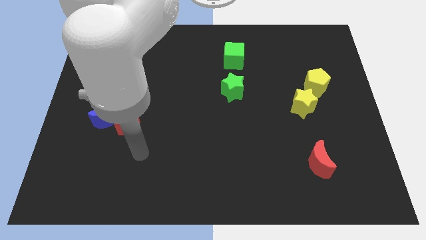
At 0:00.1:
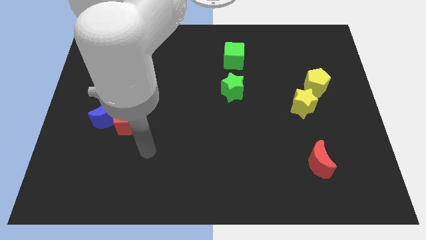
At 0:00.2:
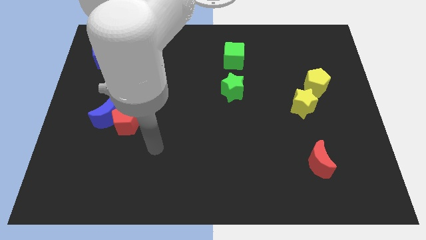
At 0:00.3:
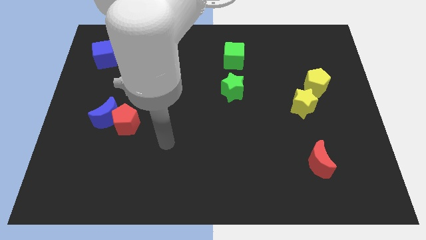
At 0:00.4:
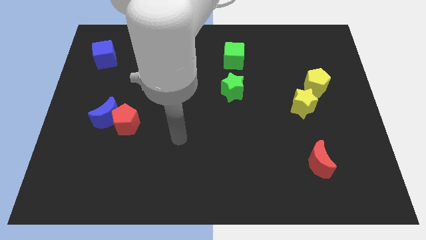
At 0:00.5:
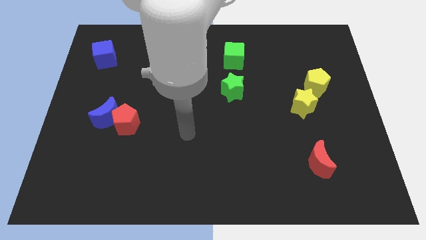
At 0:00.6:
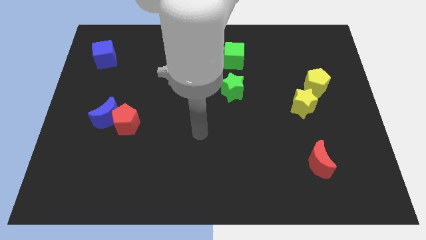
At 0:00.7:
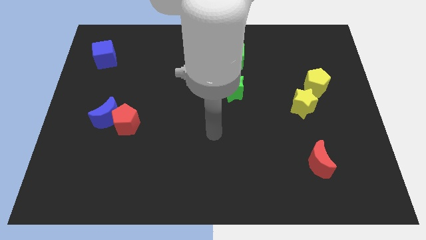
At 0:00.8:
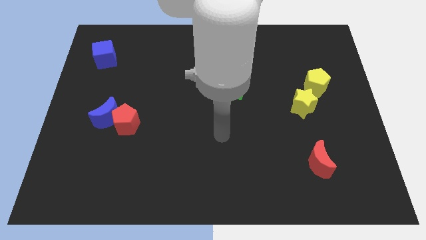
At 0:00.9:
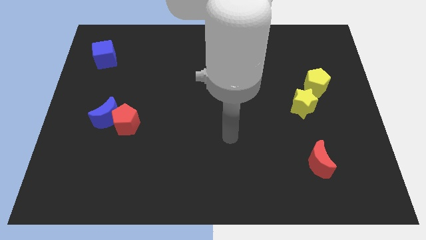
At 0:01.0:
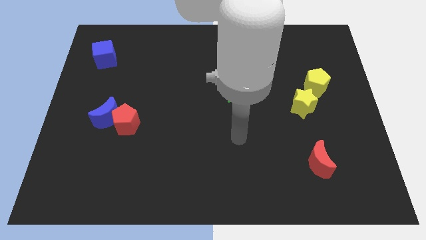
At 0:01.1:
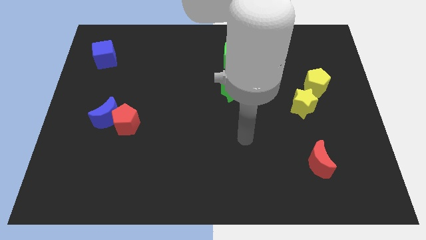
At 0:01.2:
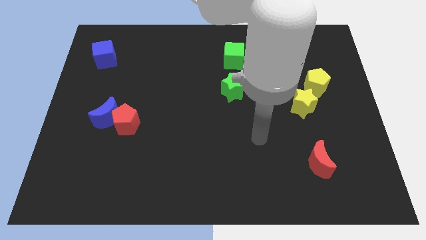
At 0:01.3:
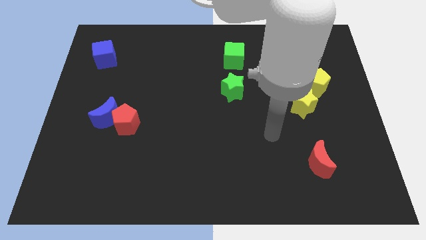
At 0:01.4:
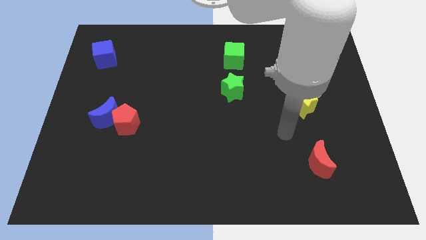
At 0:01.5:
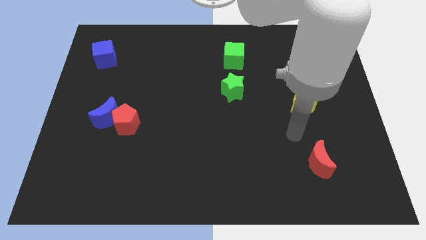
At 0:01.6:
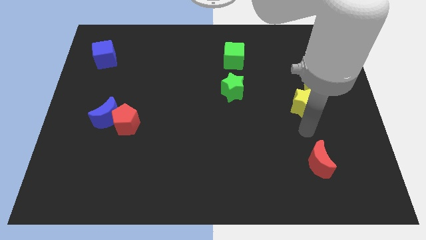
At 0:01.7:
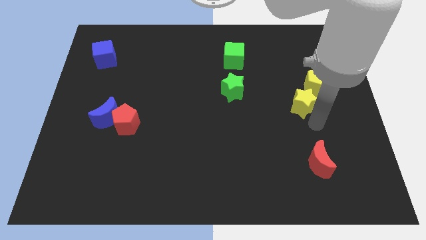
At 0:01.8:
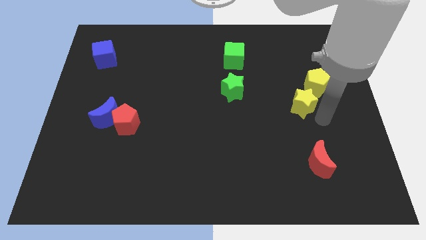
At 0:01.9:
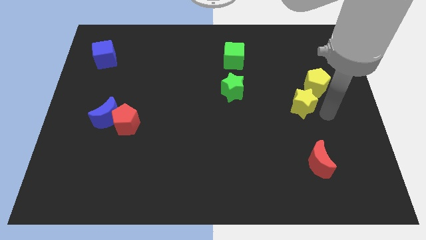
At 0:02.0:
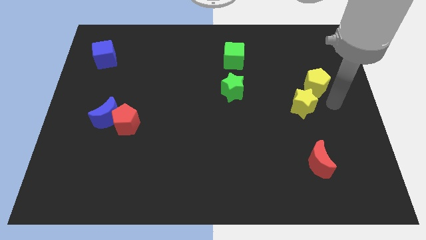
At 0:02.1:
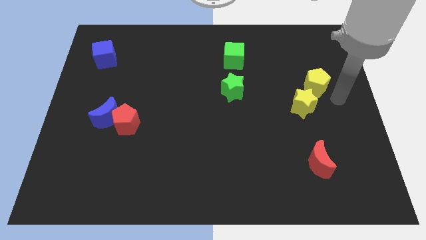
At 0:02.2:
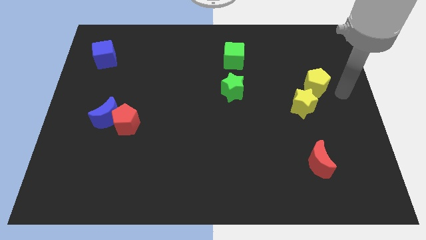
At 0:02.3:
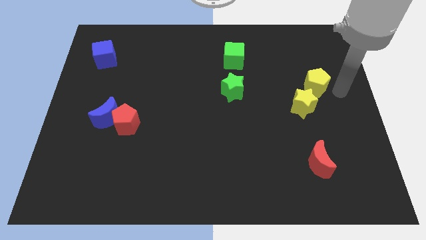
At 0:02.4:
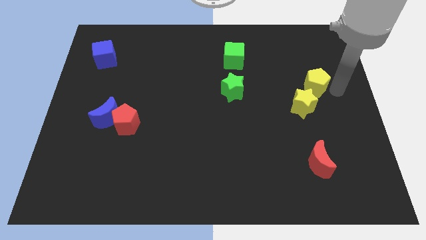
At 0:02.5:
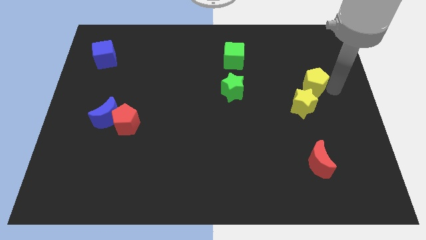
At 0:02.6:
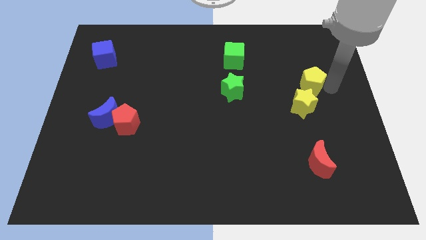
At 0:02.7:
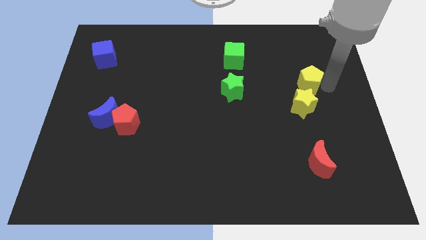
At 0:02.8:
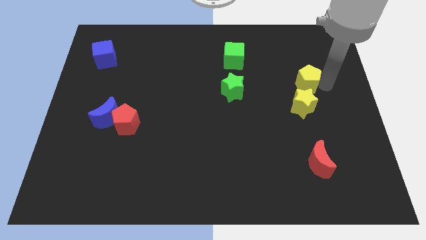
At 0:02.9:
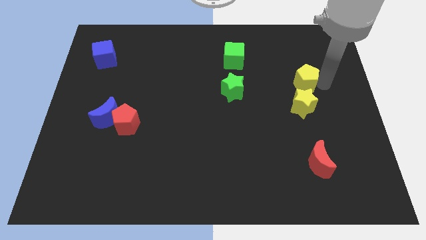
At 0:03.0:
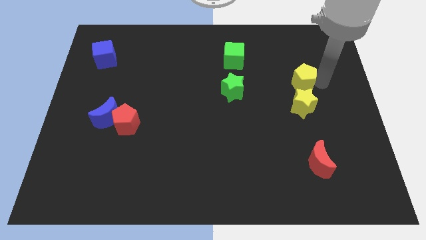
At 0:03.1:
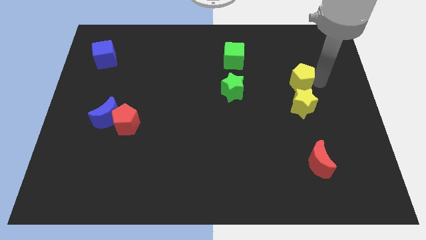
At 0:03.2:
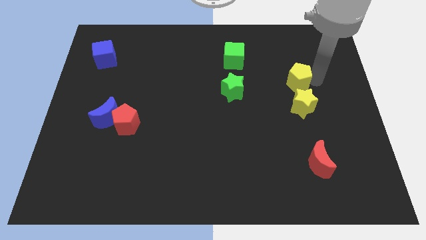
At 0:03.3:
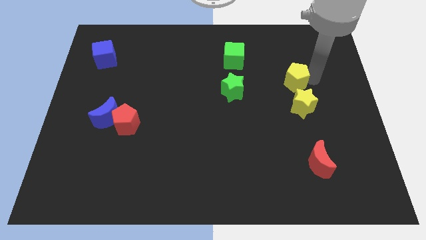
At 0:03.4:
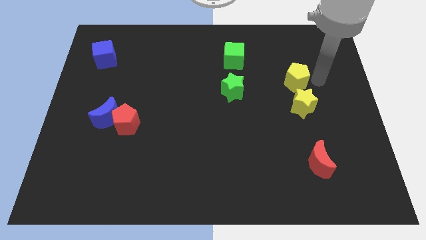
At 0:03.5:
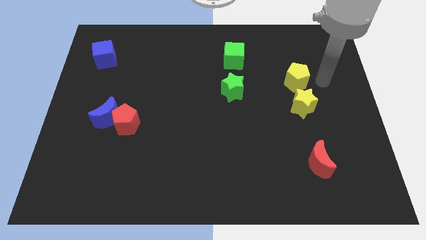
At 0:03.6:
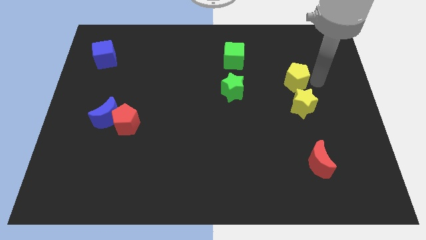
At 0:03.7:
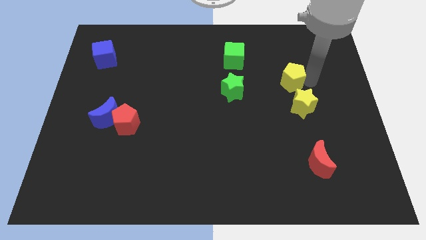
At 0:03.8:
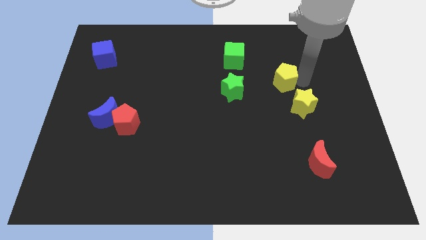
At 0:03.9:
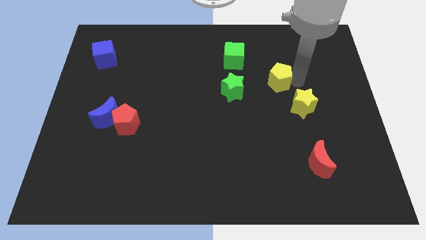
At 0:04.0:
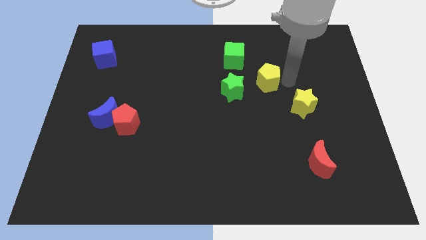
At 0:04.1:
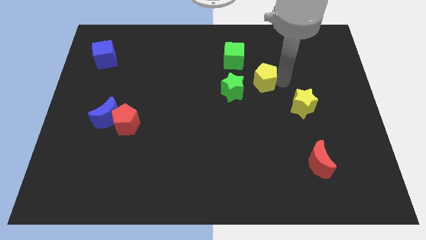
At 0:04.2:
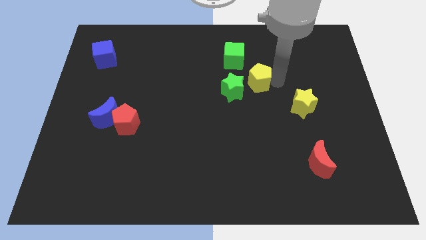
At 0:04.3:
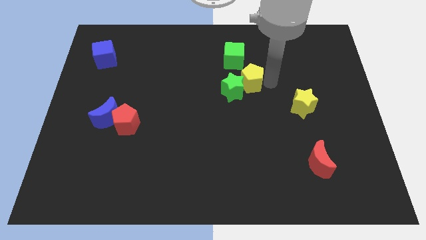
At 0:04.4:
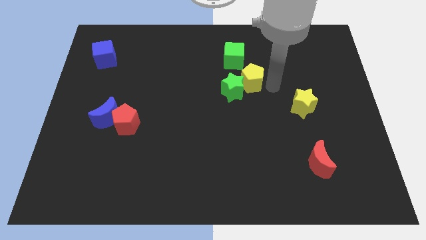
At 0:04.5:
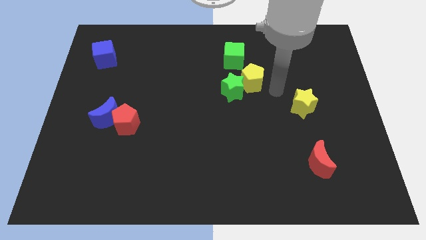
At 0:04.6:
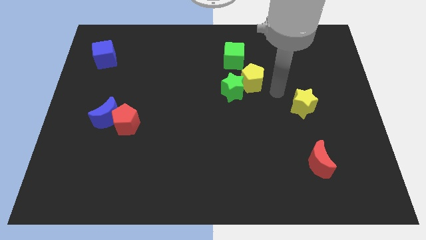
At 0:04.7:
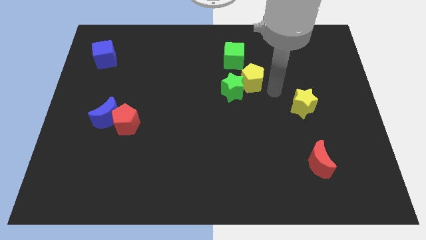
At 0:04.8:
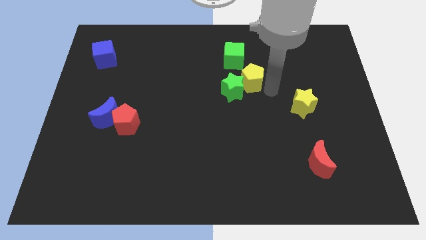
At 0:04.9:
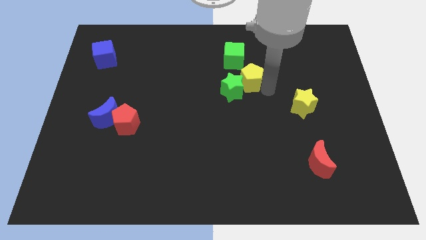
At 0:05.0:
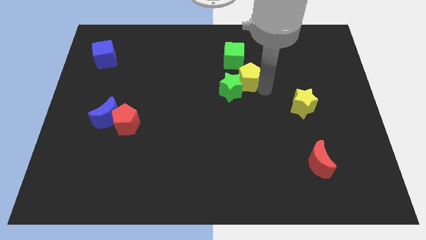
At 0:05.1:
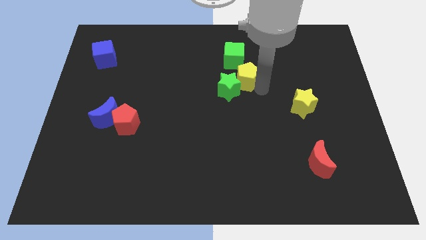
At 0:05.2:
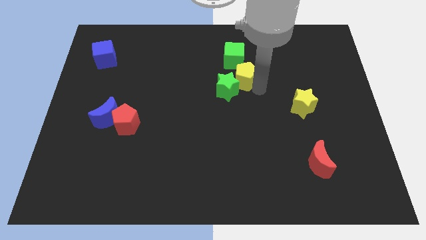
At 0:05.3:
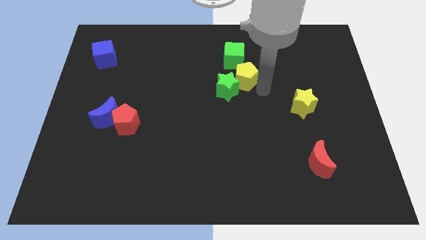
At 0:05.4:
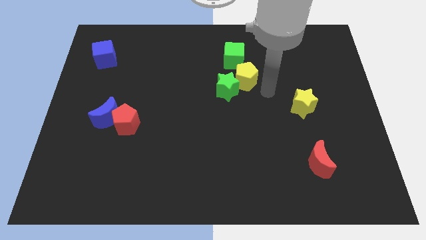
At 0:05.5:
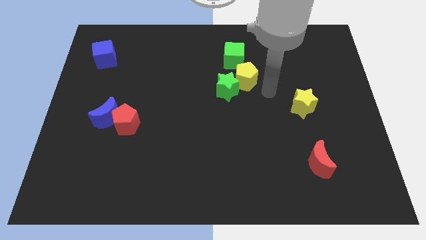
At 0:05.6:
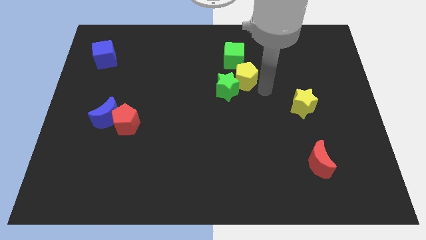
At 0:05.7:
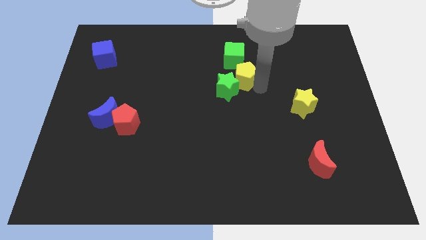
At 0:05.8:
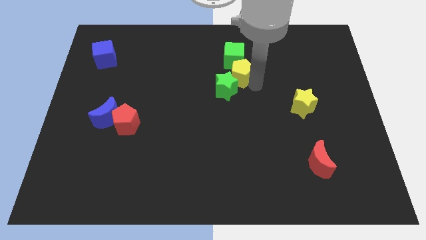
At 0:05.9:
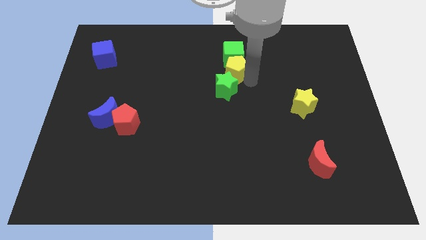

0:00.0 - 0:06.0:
move the yellow pentagon to the bottom left side of the green cube
